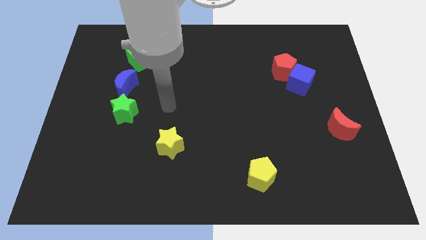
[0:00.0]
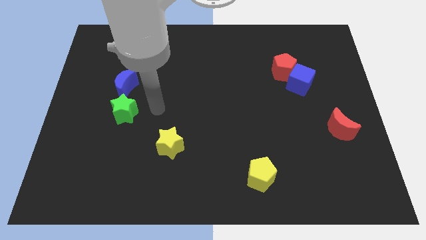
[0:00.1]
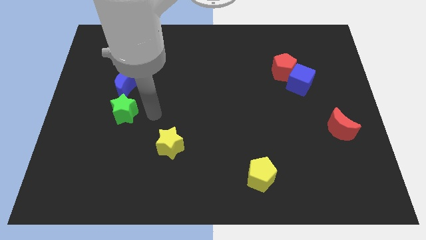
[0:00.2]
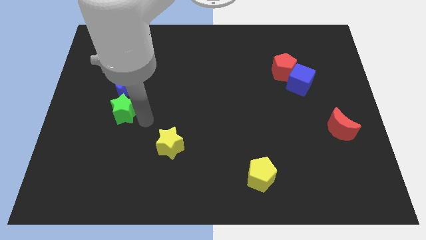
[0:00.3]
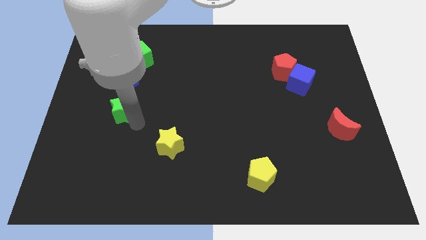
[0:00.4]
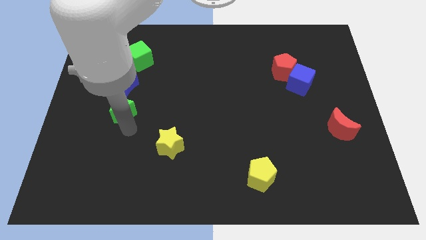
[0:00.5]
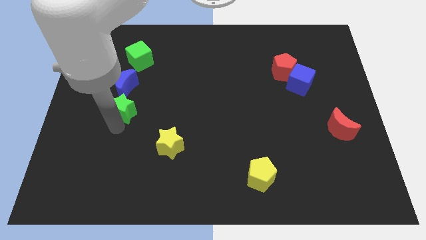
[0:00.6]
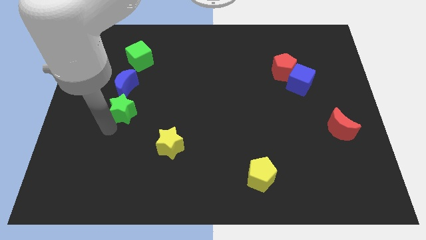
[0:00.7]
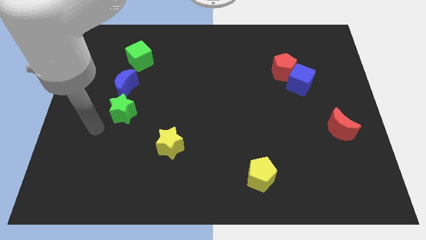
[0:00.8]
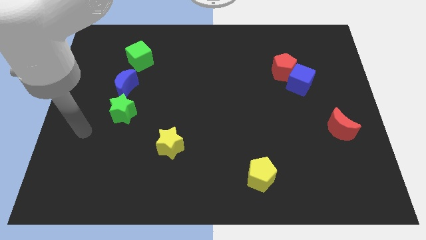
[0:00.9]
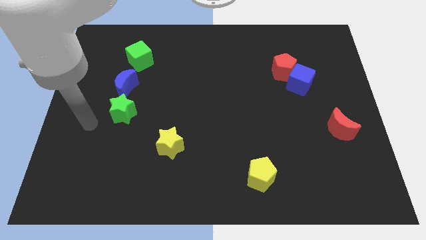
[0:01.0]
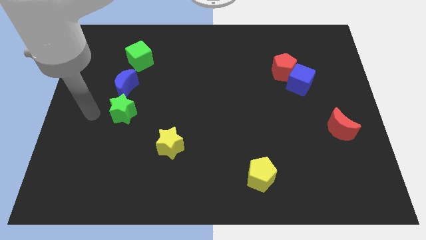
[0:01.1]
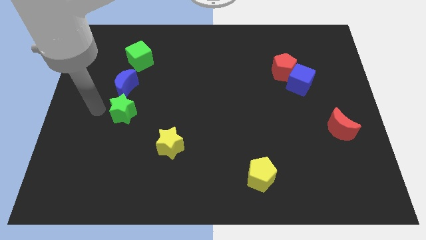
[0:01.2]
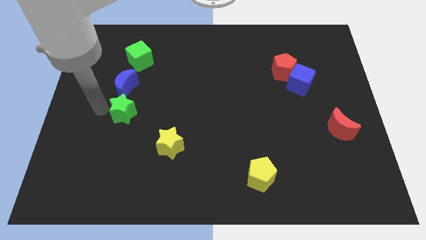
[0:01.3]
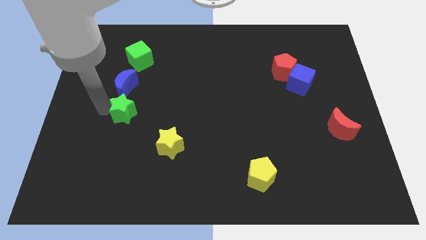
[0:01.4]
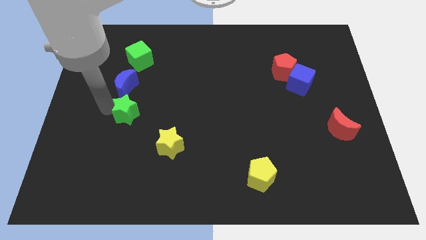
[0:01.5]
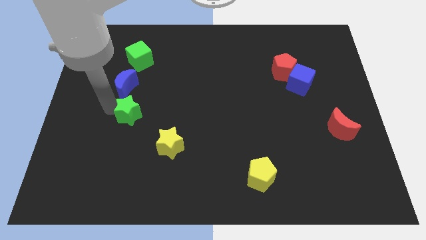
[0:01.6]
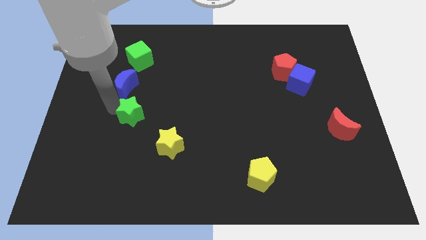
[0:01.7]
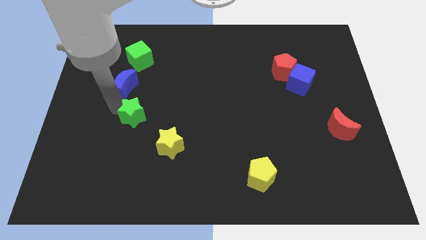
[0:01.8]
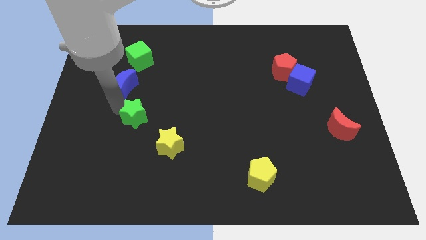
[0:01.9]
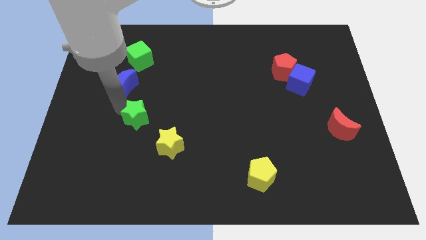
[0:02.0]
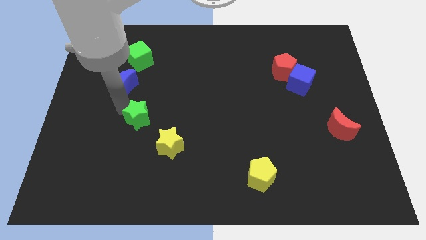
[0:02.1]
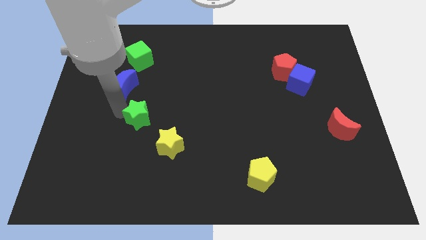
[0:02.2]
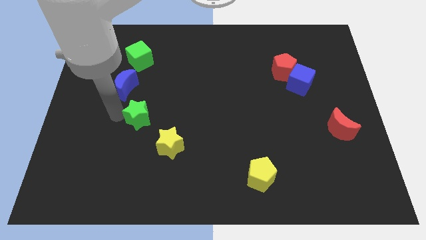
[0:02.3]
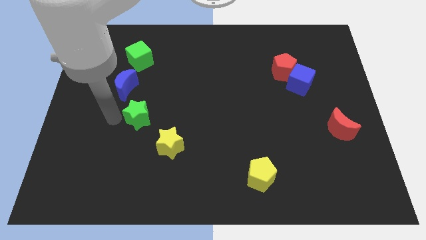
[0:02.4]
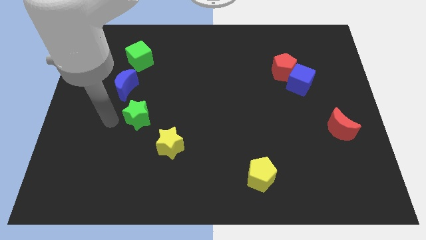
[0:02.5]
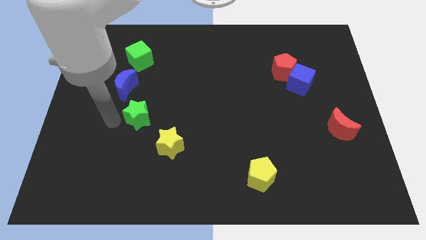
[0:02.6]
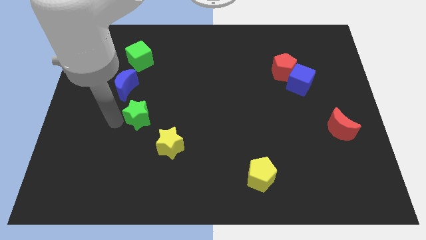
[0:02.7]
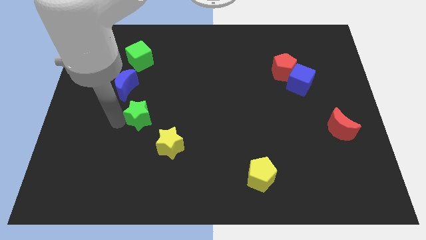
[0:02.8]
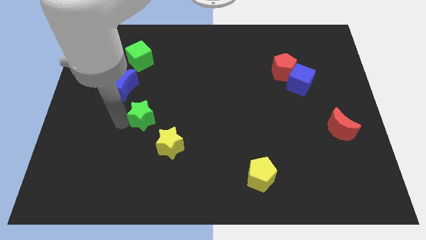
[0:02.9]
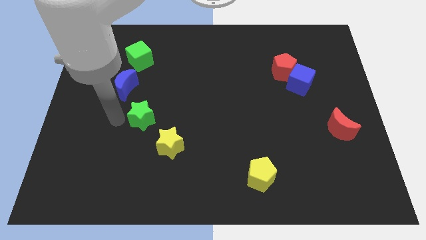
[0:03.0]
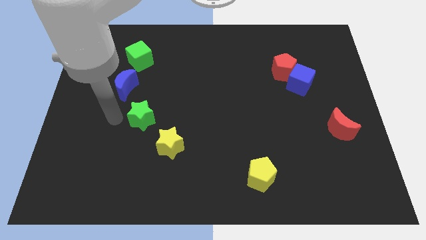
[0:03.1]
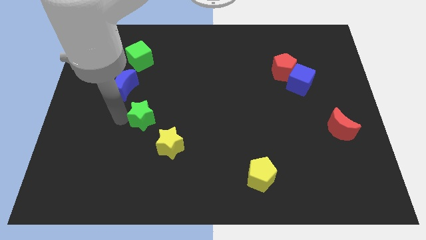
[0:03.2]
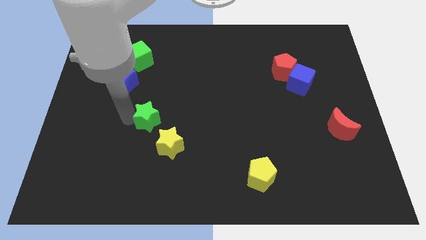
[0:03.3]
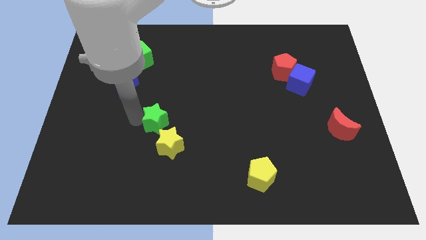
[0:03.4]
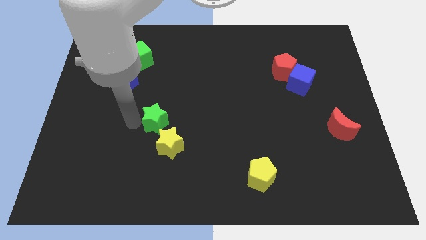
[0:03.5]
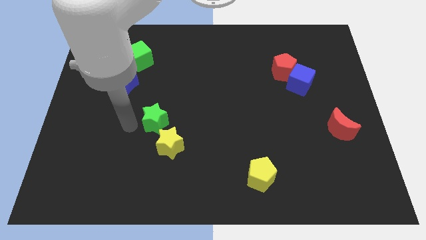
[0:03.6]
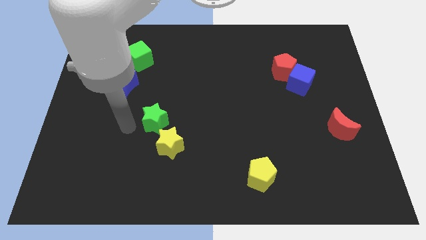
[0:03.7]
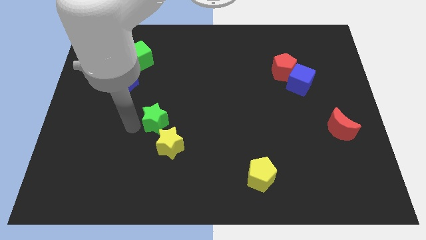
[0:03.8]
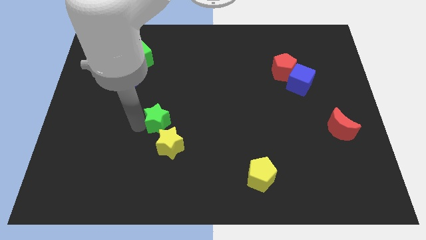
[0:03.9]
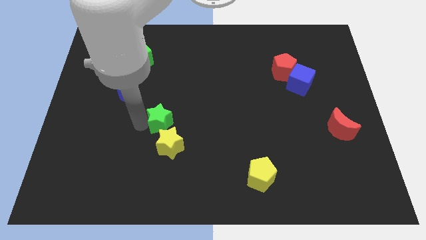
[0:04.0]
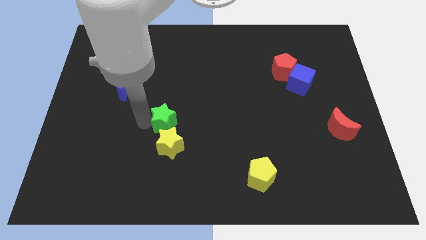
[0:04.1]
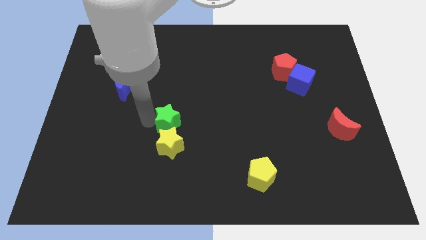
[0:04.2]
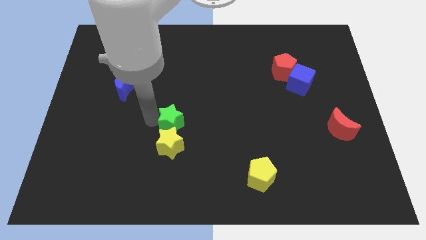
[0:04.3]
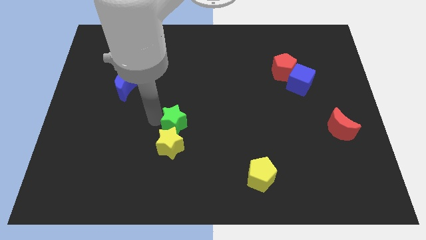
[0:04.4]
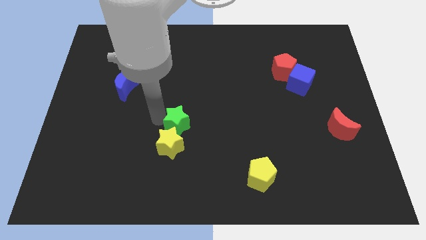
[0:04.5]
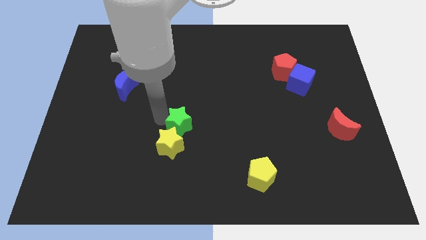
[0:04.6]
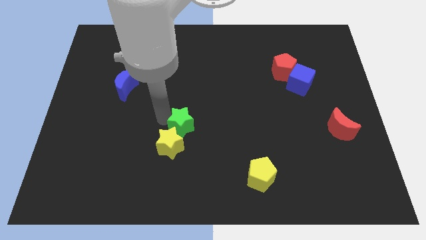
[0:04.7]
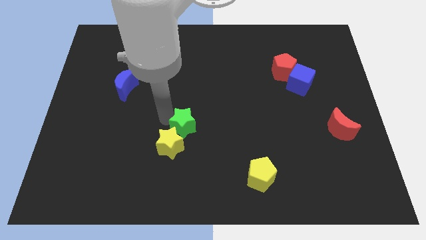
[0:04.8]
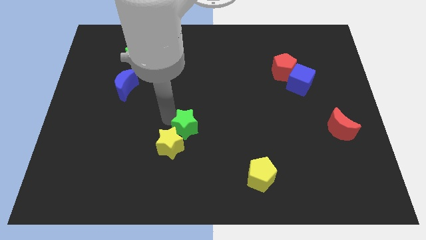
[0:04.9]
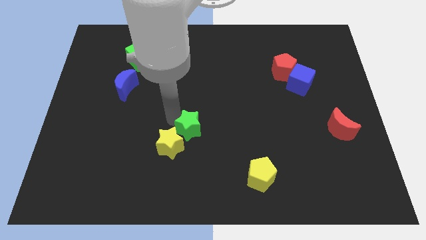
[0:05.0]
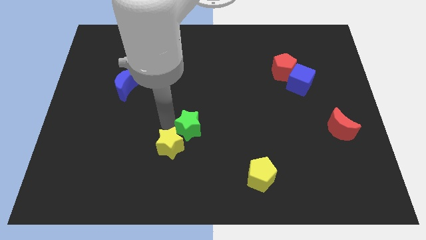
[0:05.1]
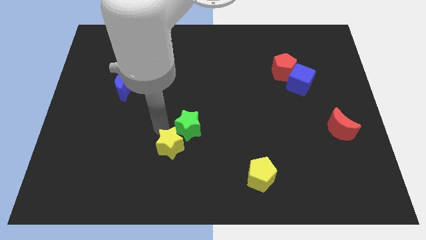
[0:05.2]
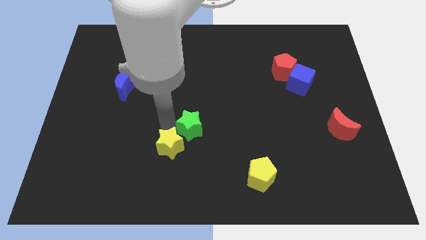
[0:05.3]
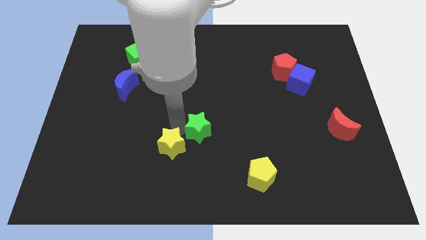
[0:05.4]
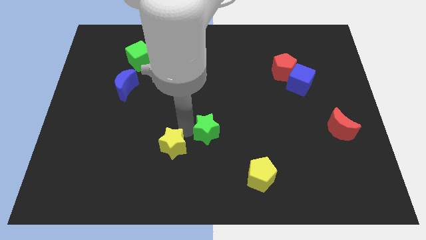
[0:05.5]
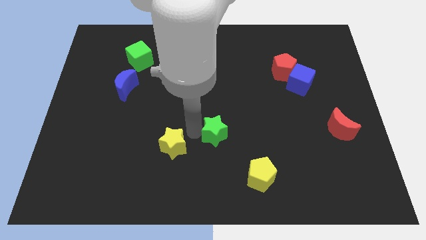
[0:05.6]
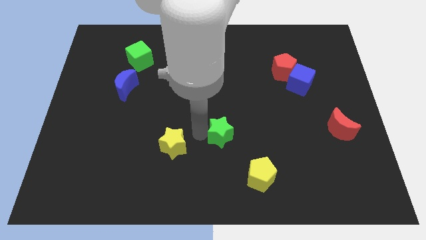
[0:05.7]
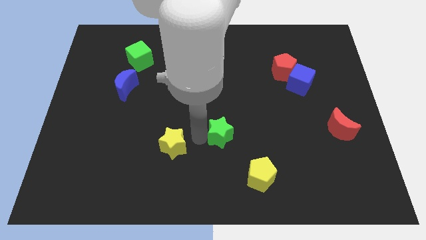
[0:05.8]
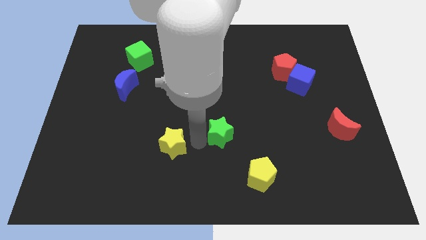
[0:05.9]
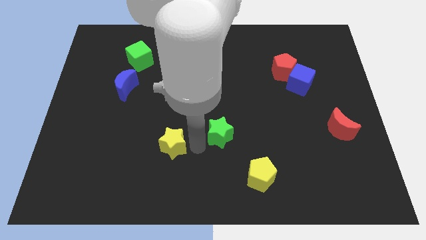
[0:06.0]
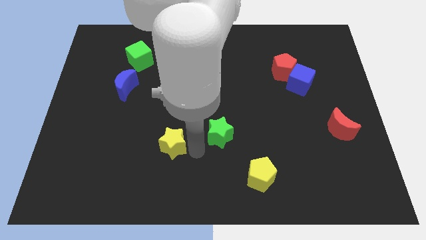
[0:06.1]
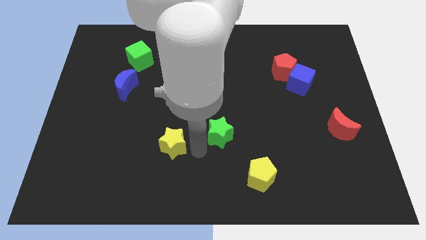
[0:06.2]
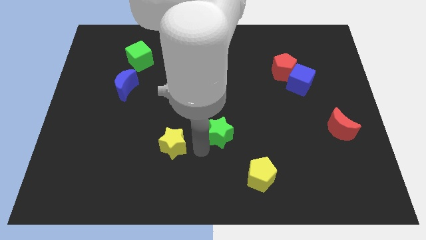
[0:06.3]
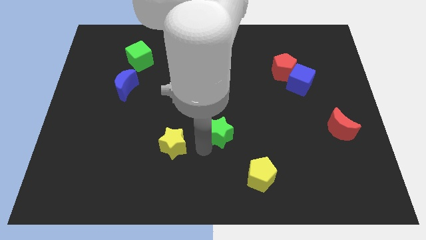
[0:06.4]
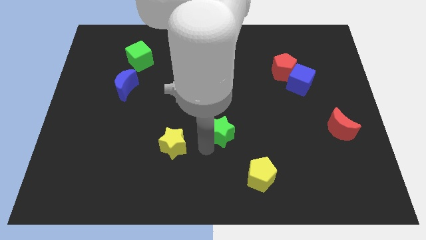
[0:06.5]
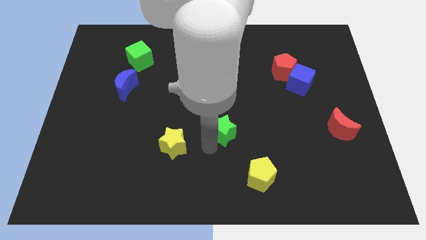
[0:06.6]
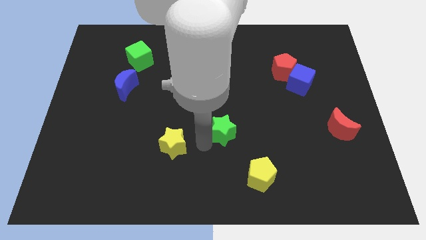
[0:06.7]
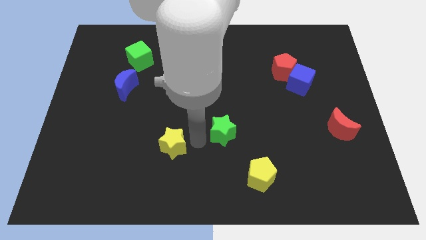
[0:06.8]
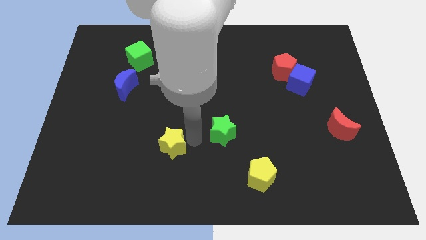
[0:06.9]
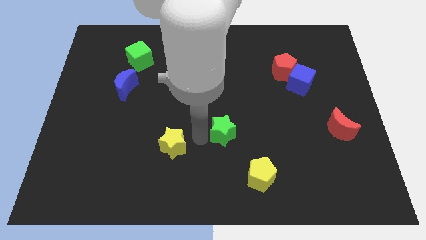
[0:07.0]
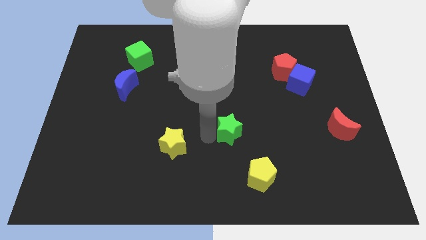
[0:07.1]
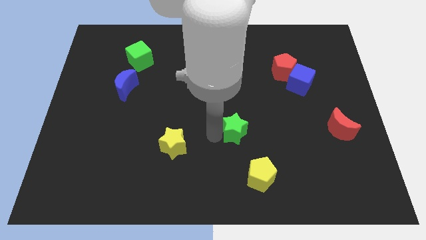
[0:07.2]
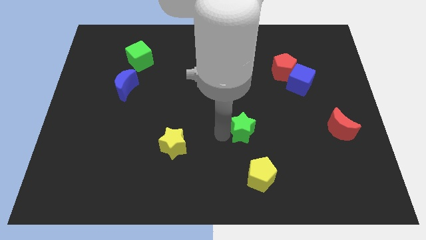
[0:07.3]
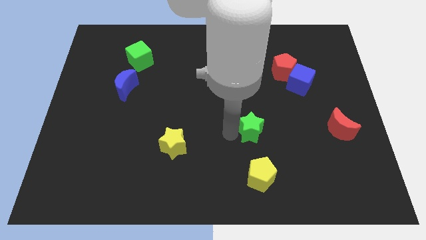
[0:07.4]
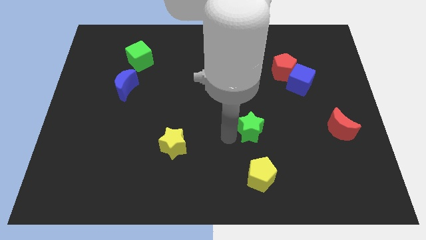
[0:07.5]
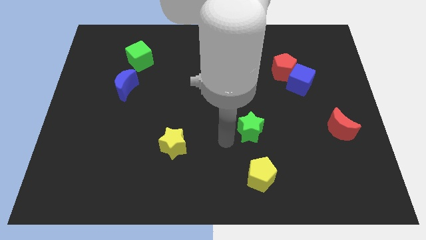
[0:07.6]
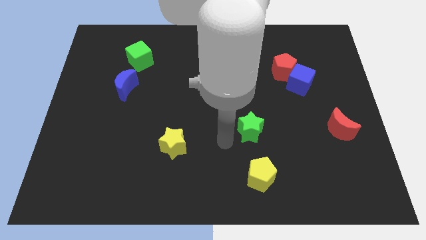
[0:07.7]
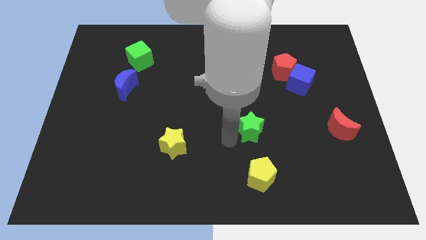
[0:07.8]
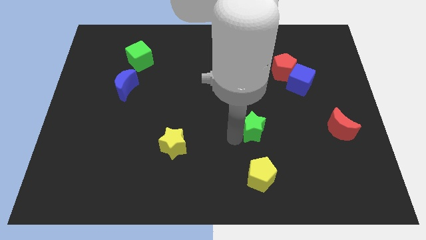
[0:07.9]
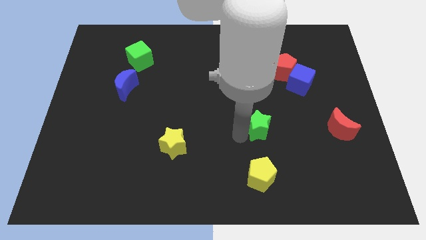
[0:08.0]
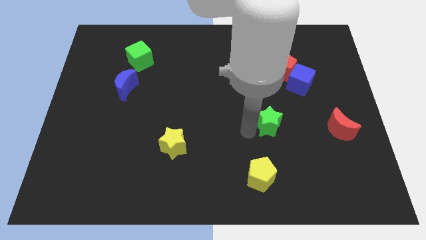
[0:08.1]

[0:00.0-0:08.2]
put the green star left of the red moon
